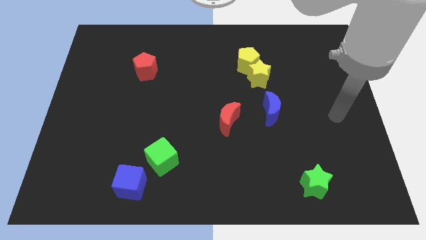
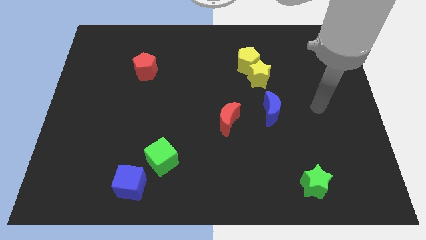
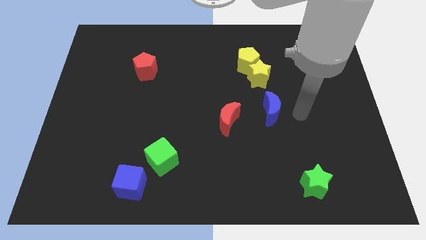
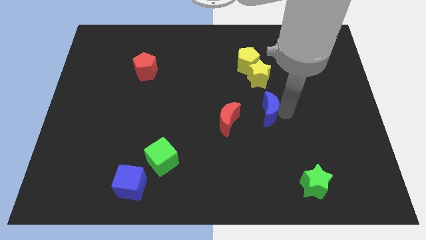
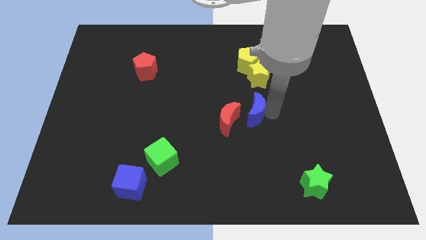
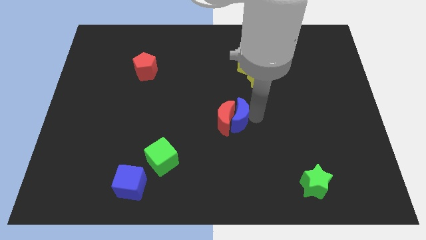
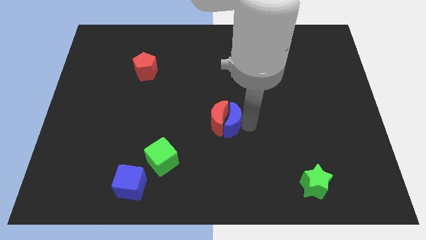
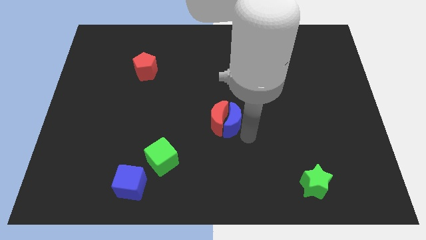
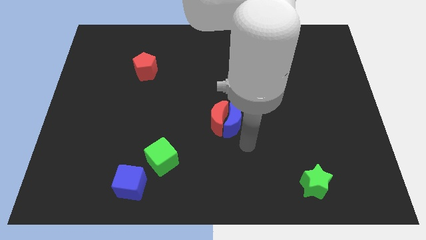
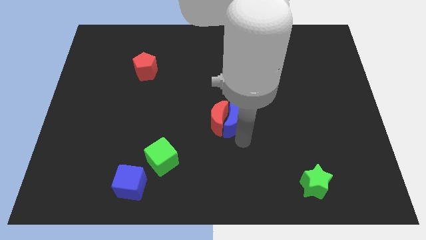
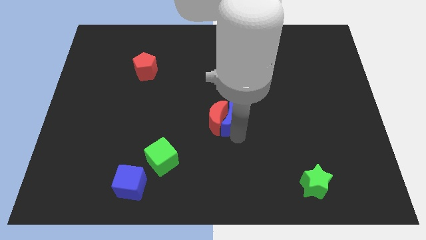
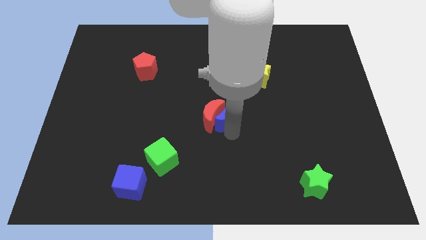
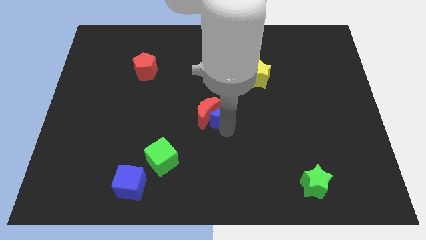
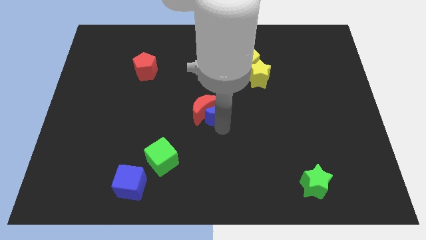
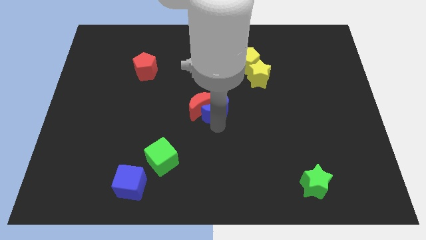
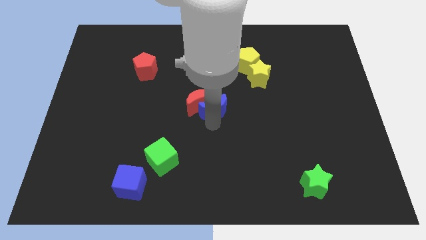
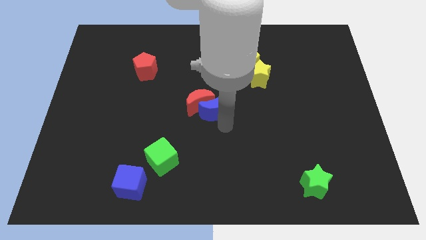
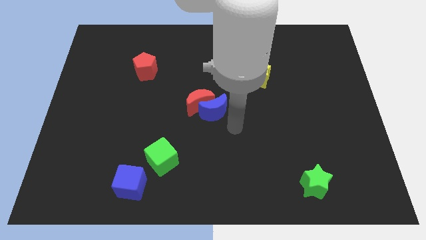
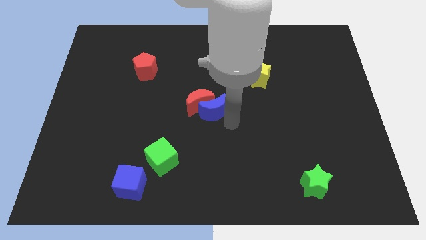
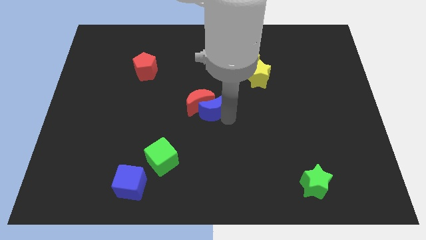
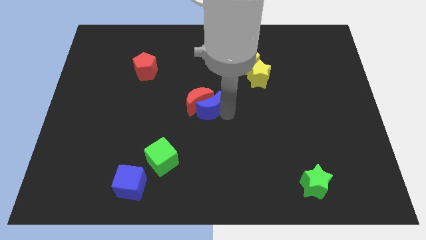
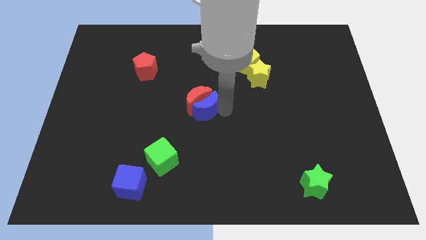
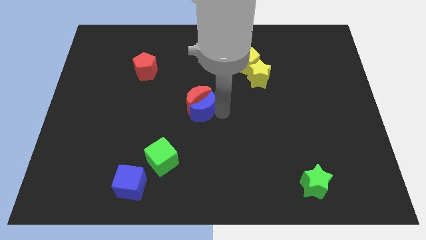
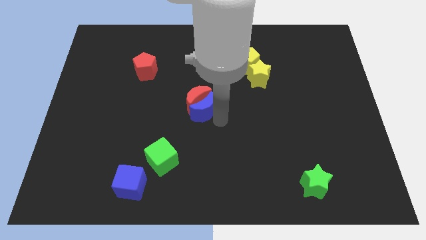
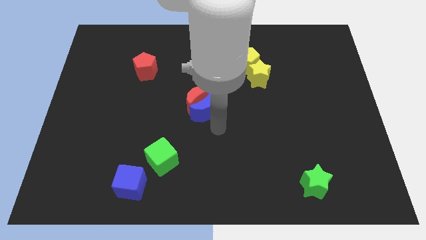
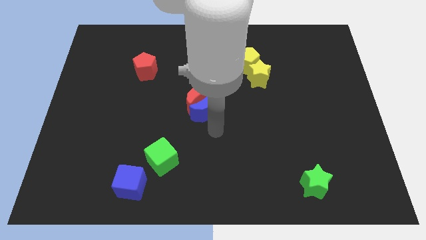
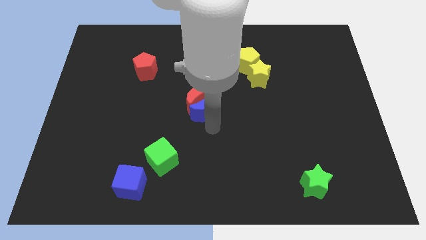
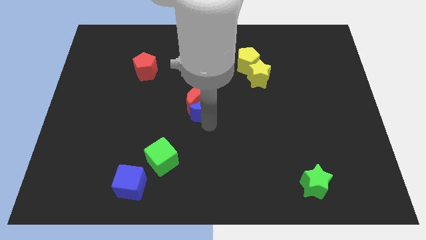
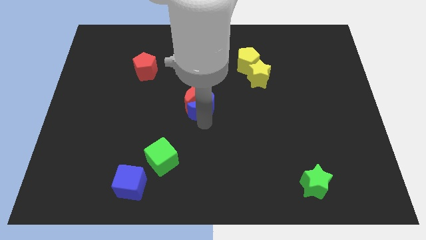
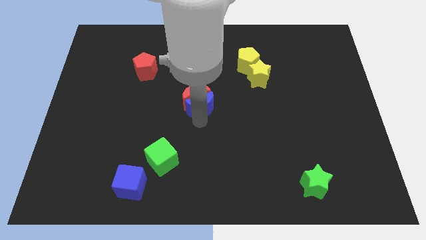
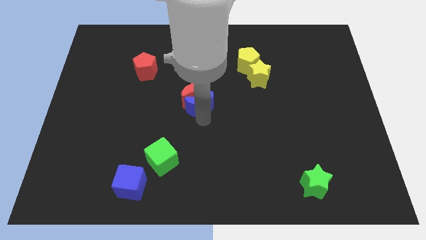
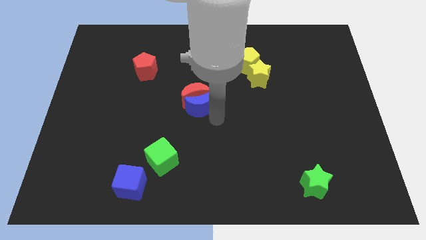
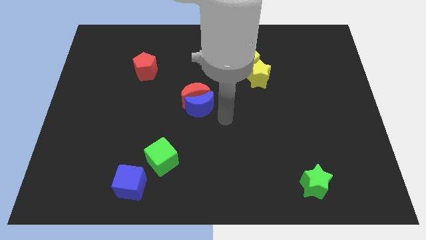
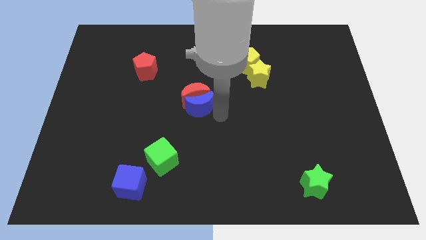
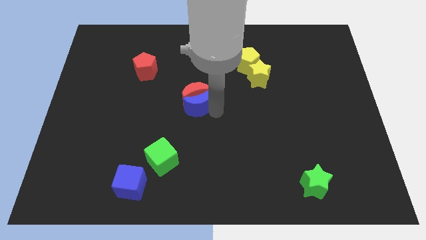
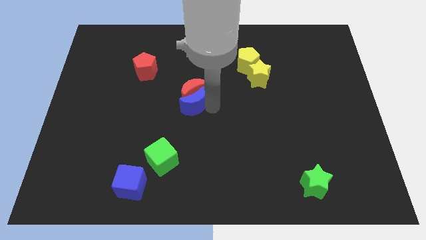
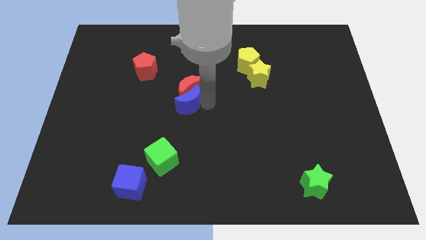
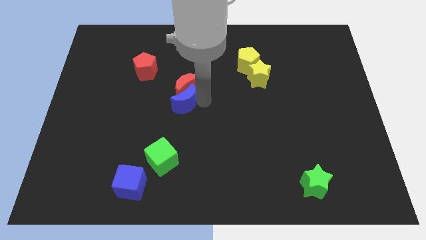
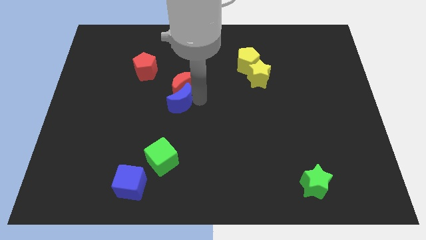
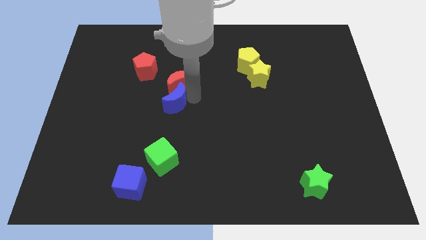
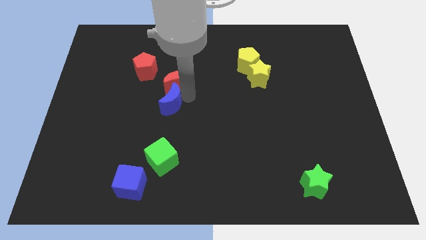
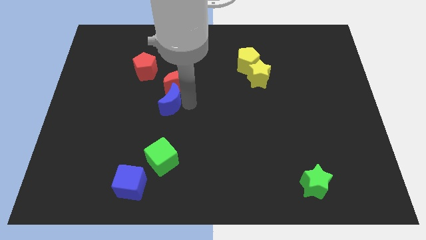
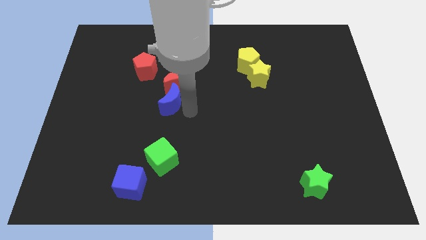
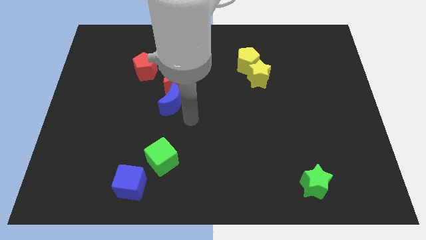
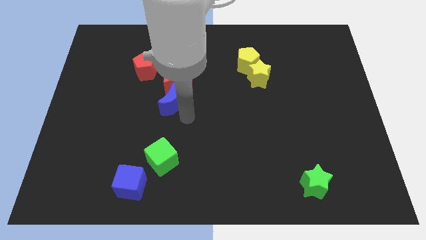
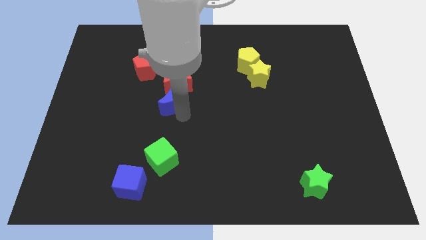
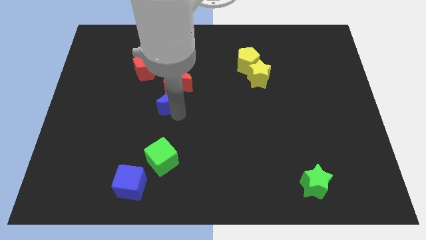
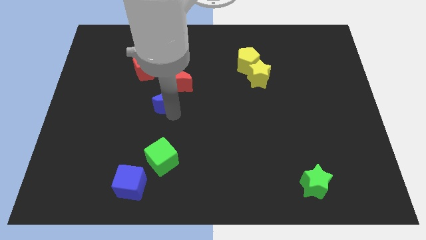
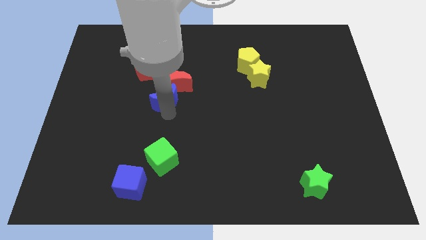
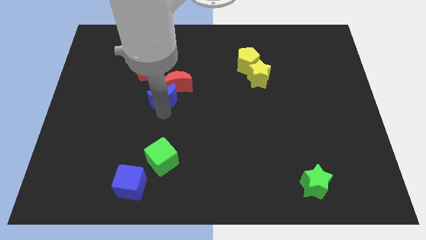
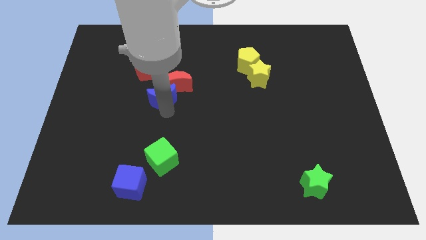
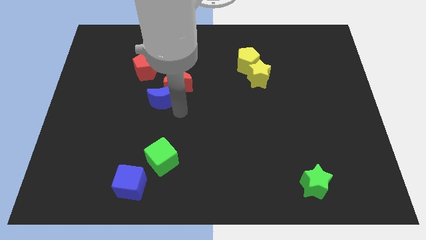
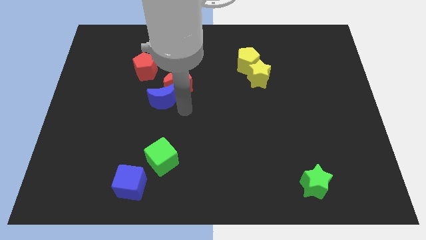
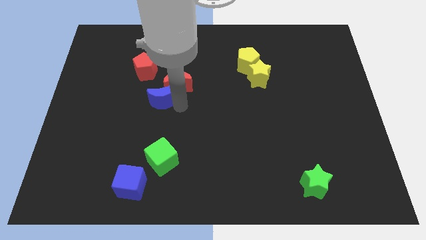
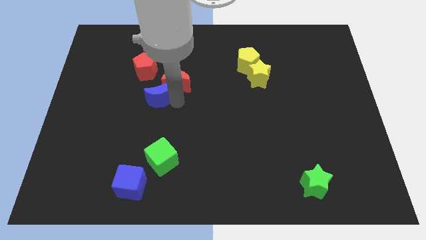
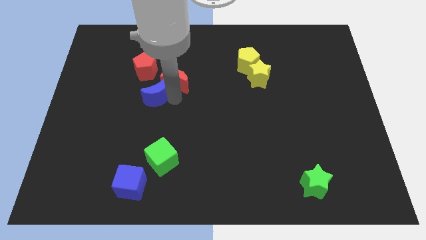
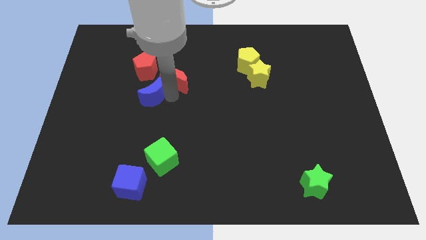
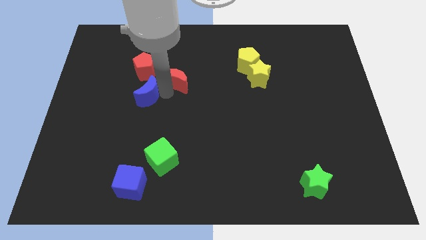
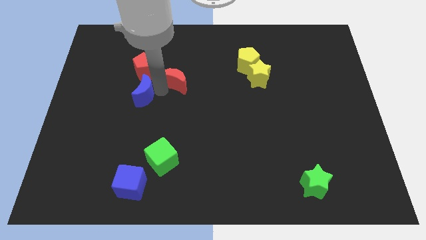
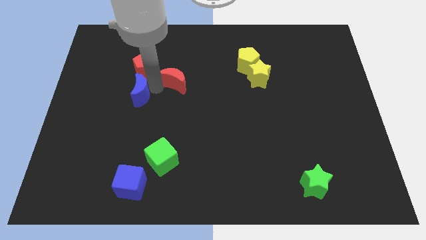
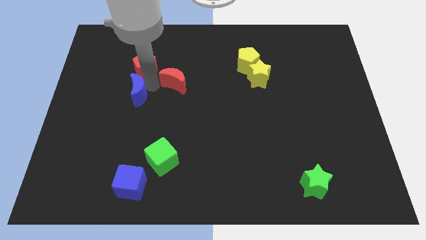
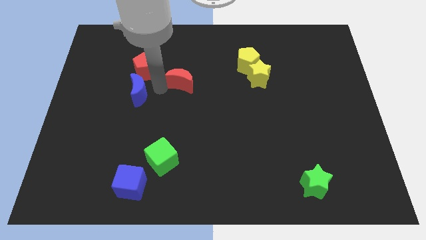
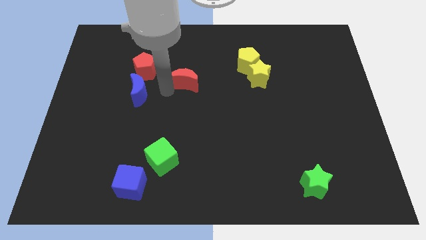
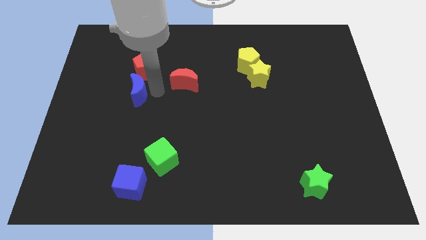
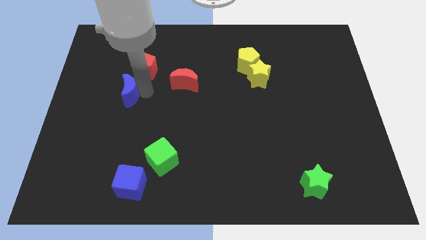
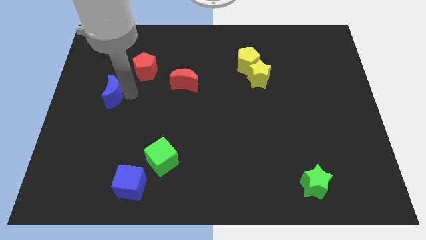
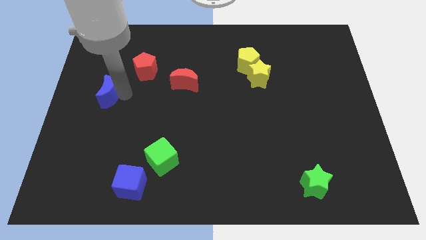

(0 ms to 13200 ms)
put the blue moon to the center left
